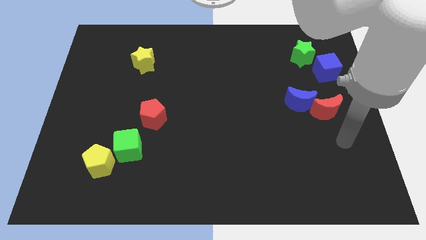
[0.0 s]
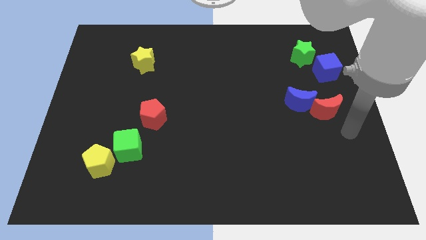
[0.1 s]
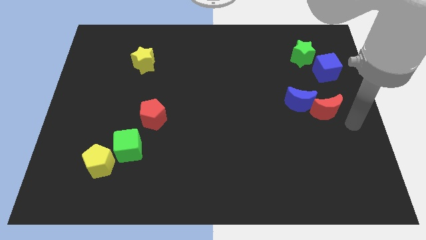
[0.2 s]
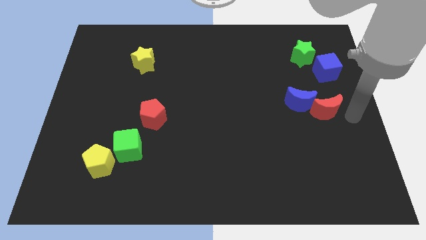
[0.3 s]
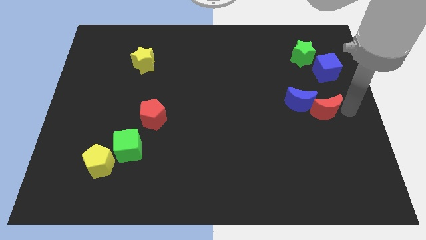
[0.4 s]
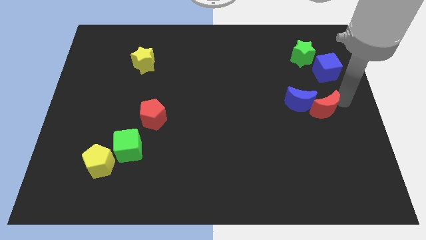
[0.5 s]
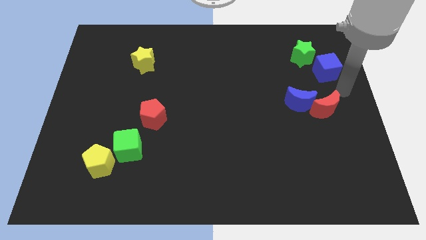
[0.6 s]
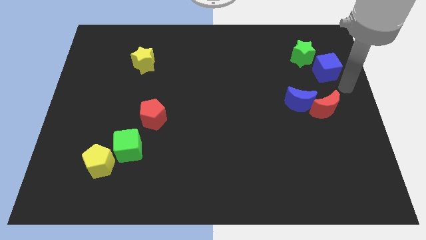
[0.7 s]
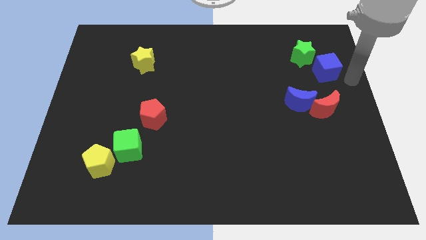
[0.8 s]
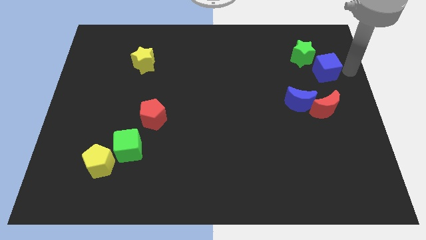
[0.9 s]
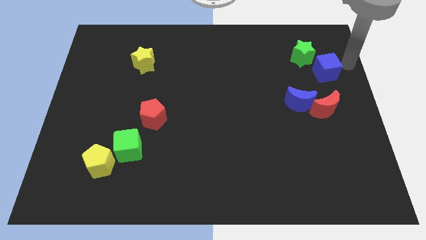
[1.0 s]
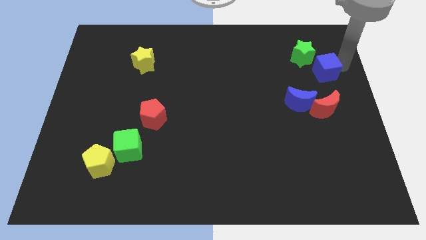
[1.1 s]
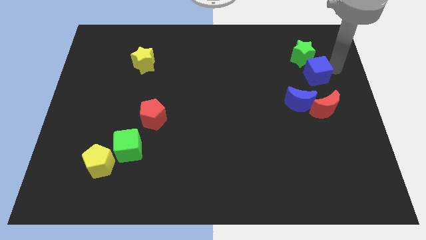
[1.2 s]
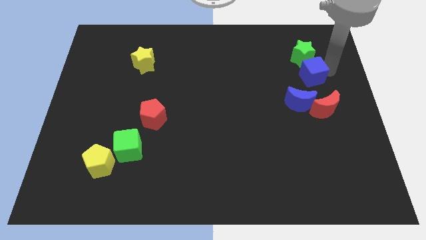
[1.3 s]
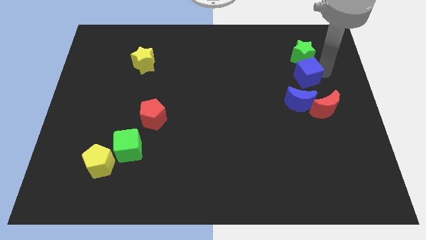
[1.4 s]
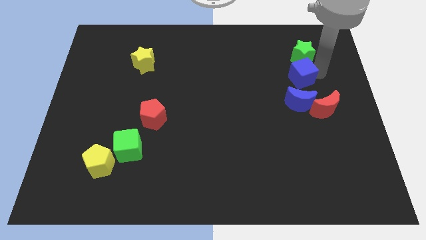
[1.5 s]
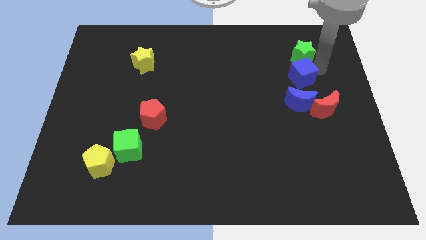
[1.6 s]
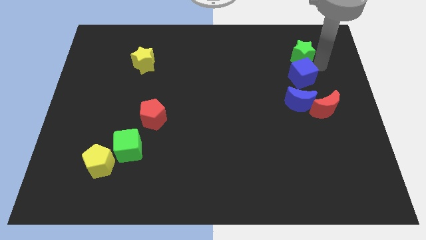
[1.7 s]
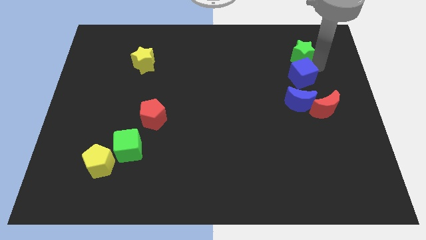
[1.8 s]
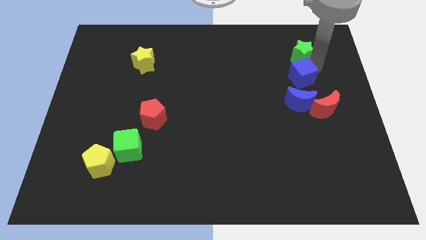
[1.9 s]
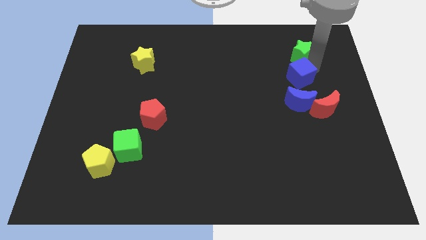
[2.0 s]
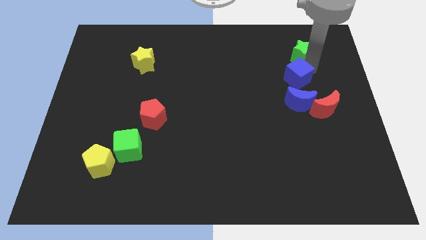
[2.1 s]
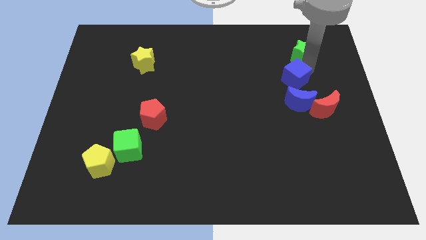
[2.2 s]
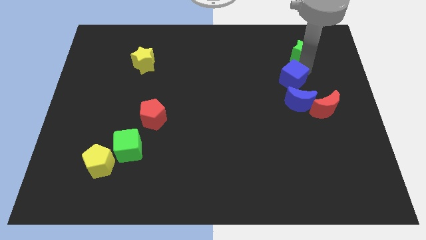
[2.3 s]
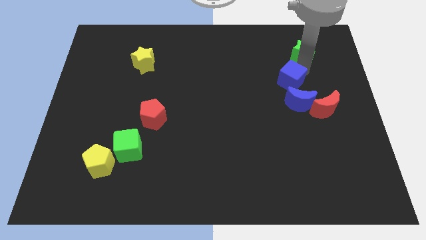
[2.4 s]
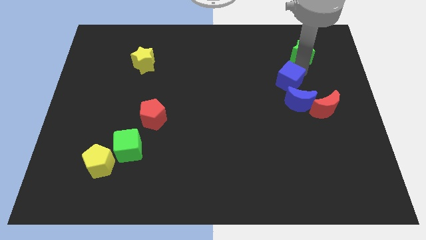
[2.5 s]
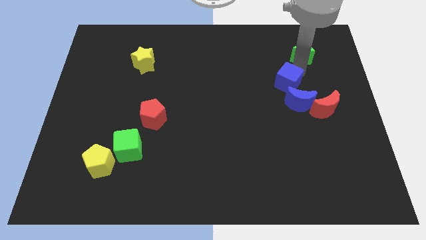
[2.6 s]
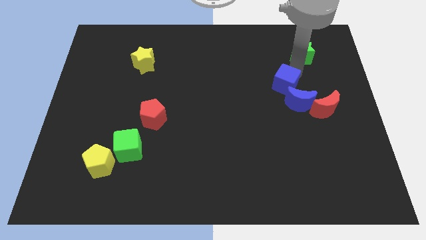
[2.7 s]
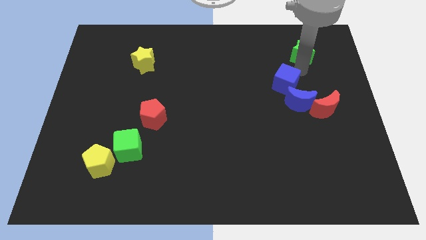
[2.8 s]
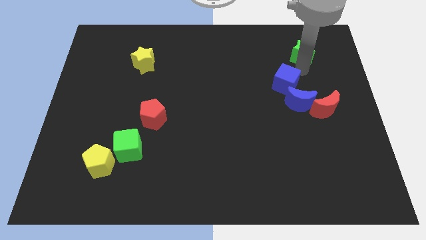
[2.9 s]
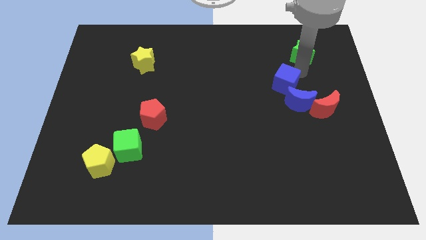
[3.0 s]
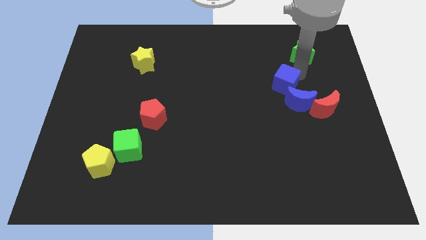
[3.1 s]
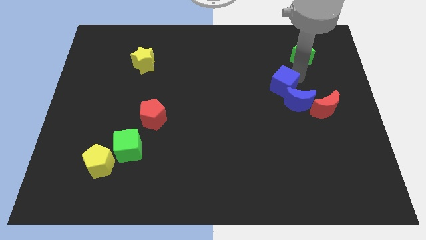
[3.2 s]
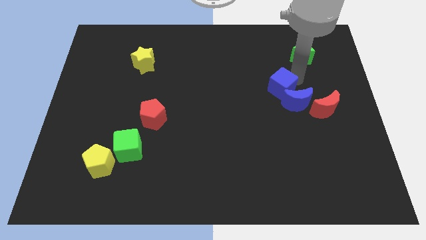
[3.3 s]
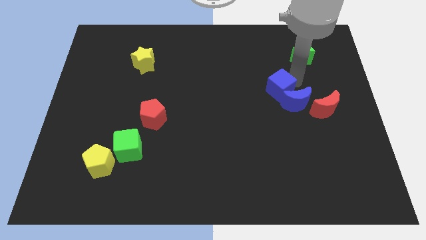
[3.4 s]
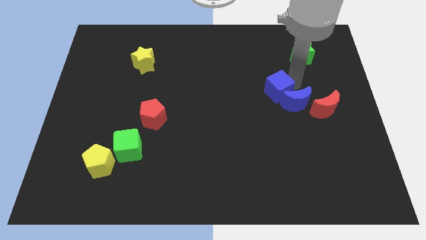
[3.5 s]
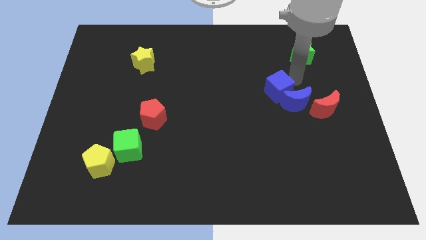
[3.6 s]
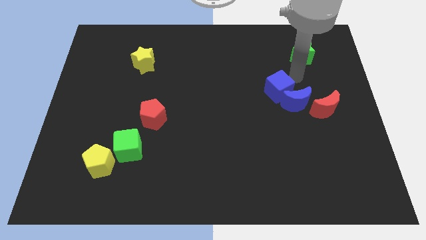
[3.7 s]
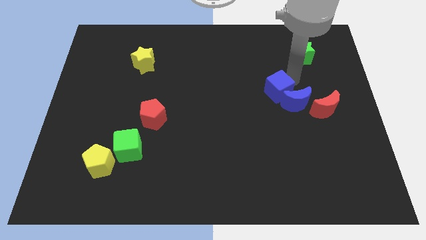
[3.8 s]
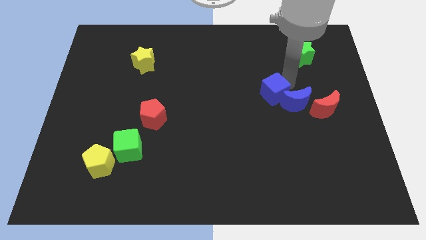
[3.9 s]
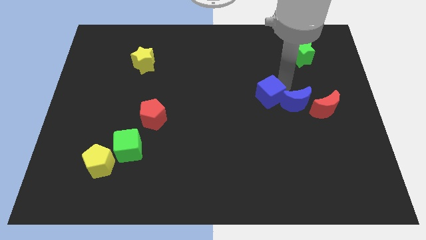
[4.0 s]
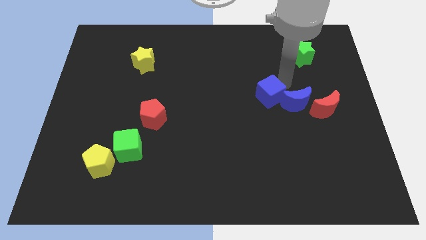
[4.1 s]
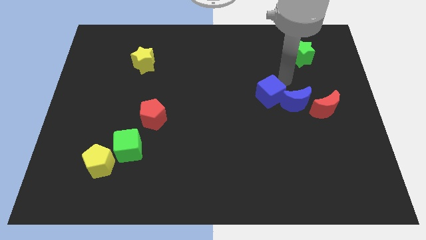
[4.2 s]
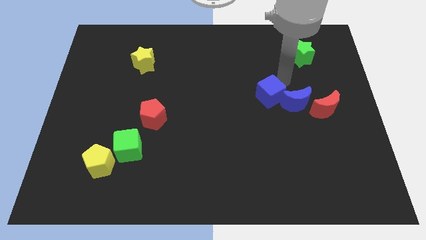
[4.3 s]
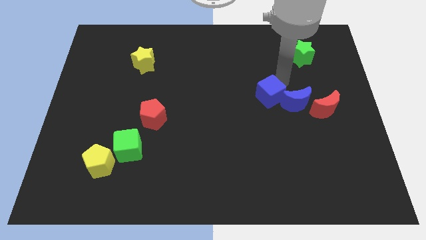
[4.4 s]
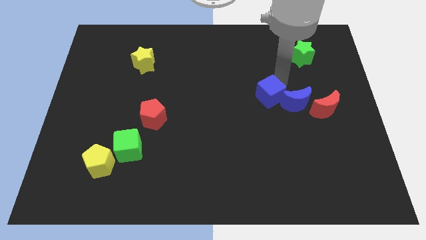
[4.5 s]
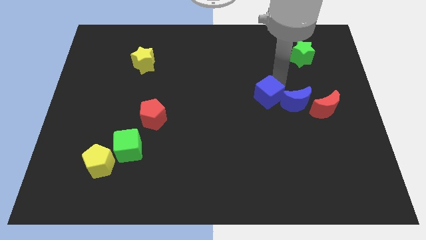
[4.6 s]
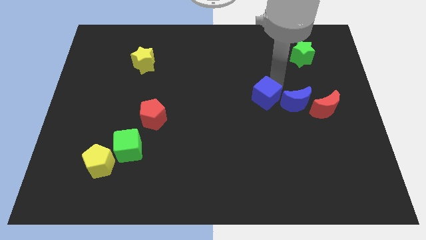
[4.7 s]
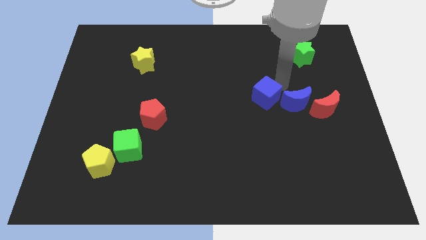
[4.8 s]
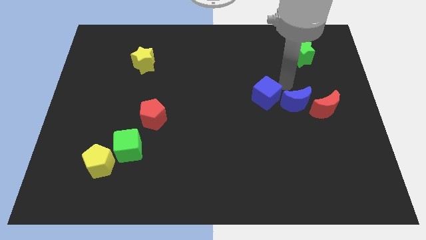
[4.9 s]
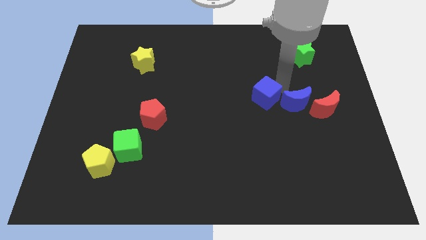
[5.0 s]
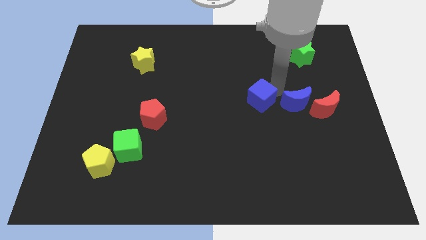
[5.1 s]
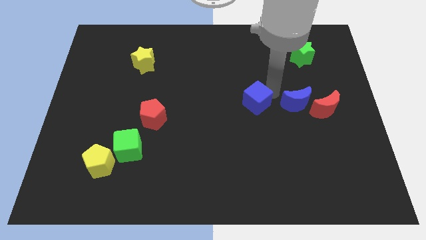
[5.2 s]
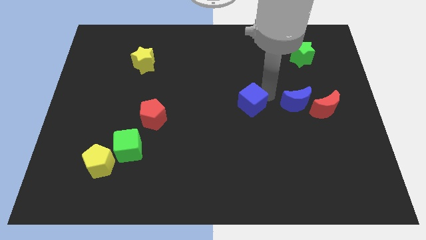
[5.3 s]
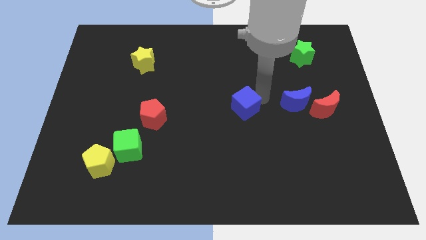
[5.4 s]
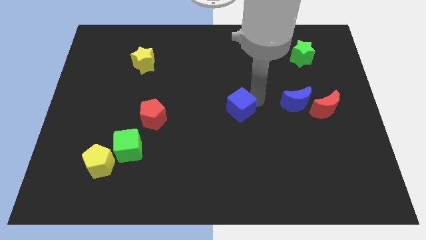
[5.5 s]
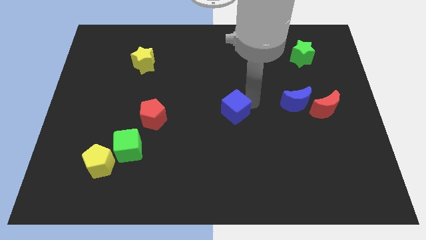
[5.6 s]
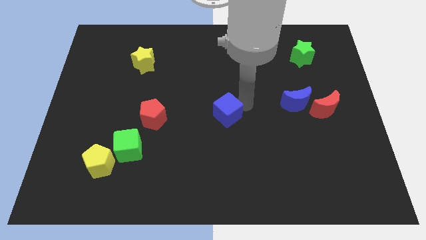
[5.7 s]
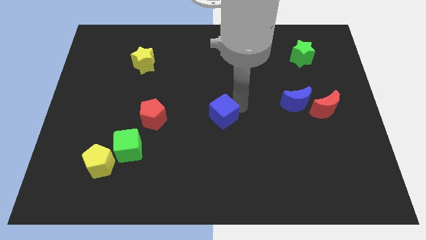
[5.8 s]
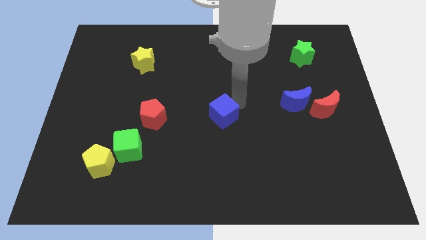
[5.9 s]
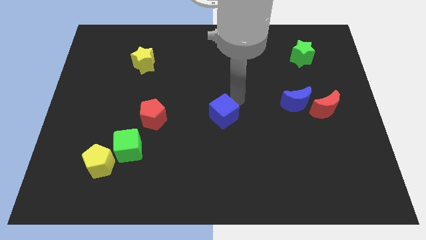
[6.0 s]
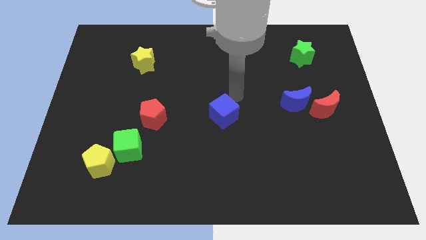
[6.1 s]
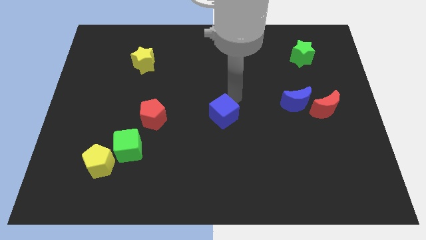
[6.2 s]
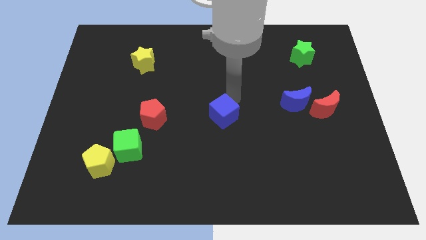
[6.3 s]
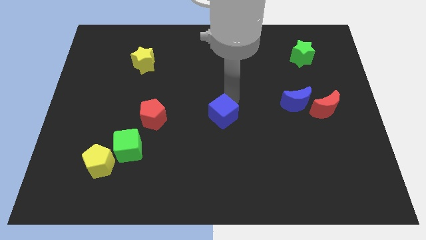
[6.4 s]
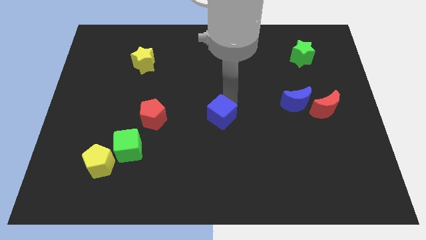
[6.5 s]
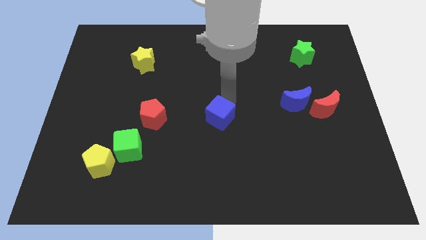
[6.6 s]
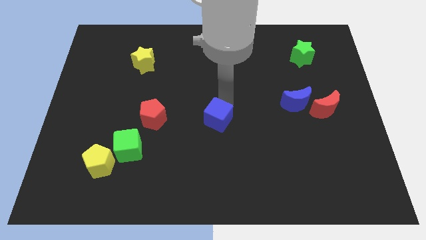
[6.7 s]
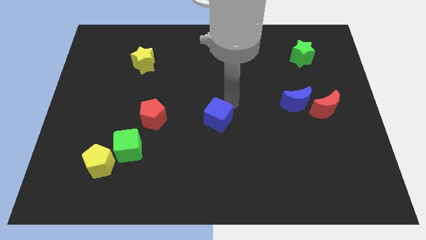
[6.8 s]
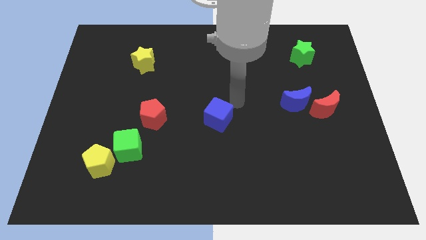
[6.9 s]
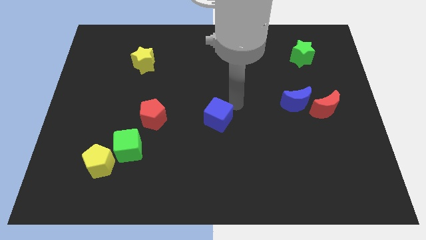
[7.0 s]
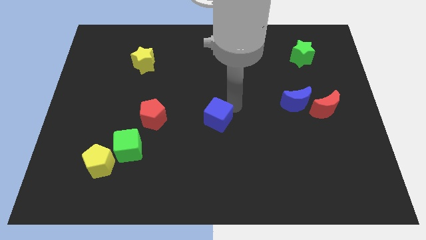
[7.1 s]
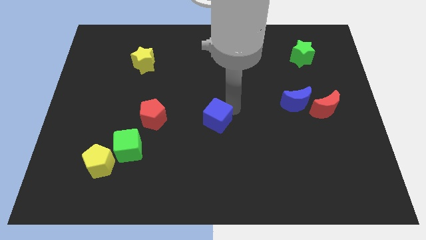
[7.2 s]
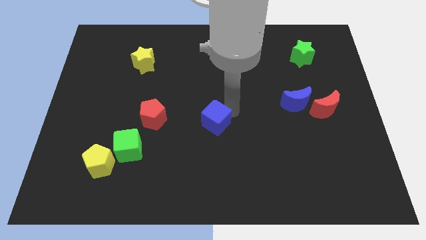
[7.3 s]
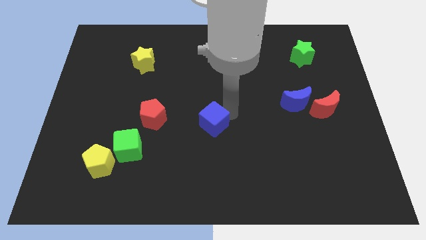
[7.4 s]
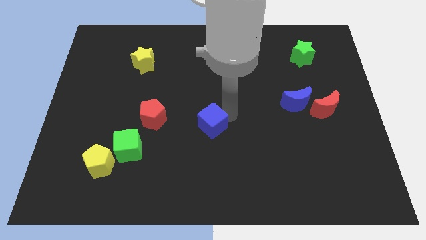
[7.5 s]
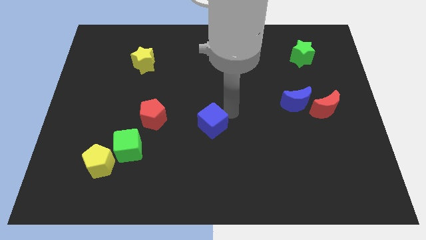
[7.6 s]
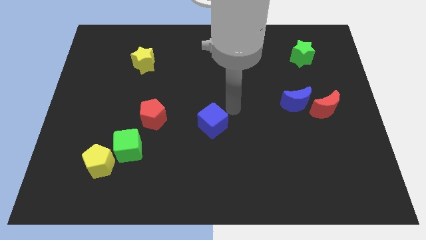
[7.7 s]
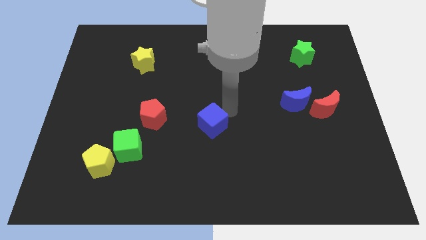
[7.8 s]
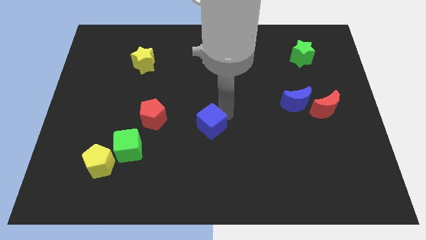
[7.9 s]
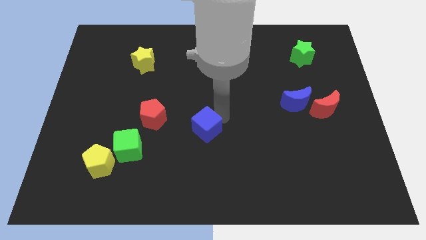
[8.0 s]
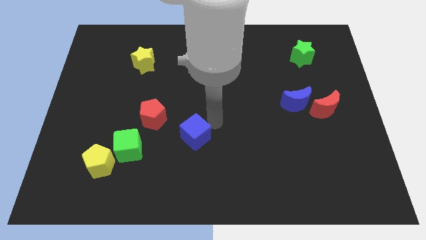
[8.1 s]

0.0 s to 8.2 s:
slide the blue cube to the right side of the green cube
